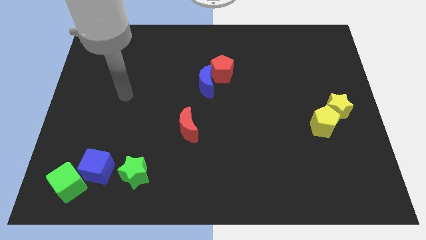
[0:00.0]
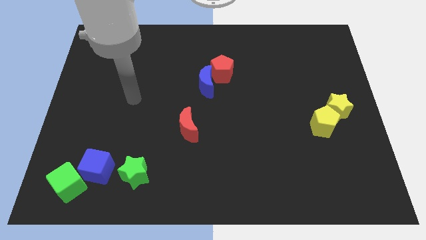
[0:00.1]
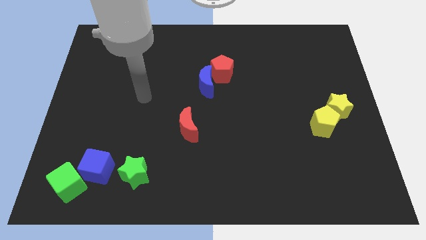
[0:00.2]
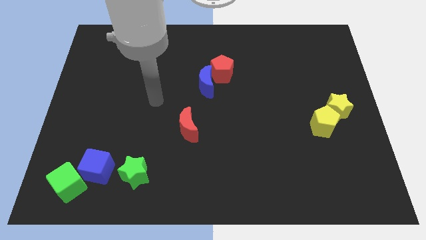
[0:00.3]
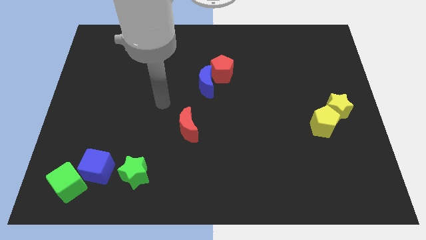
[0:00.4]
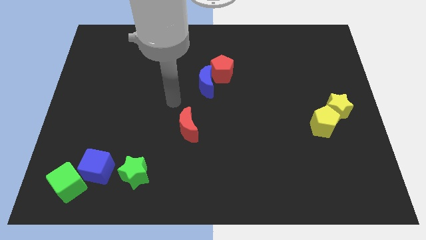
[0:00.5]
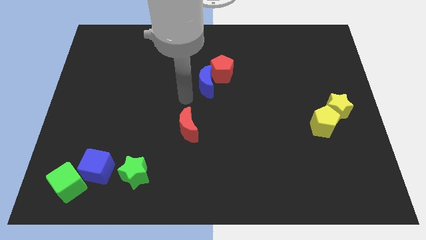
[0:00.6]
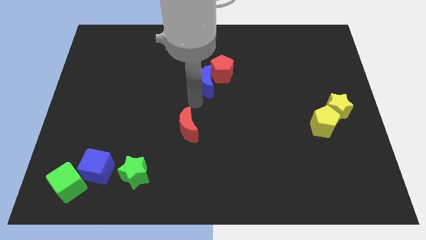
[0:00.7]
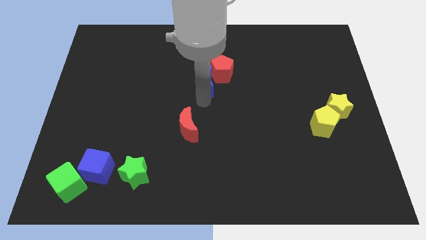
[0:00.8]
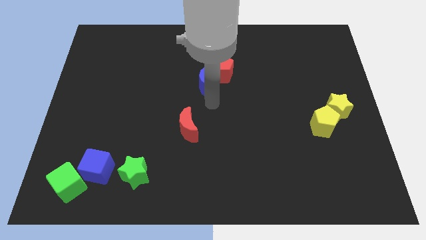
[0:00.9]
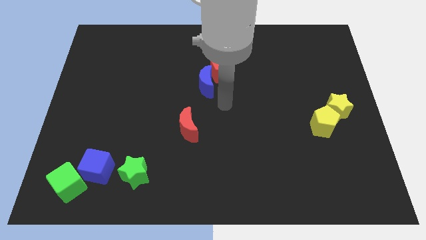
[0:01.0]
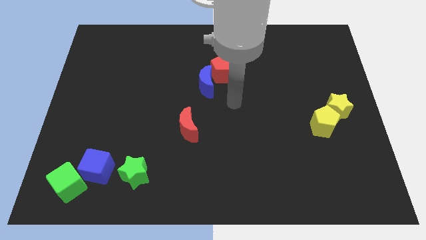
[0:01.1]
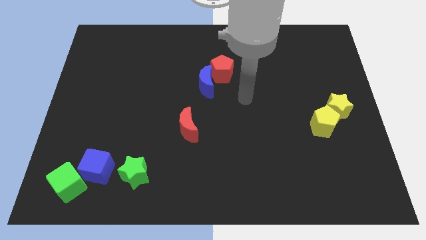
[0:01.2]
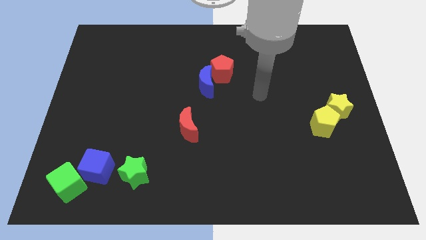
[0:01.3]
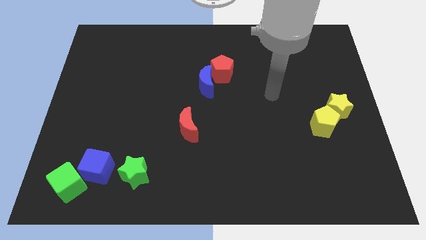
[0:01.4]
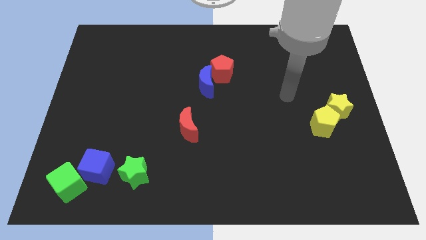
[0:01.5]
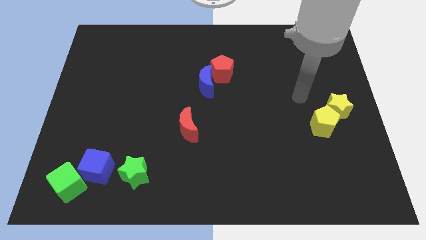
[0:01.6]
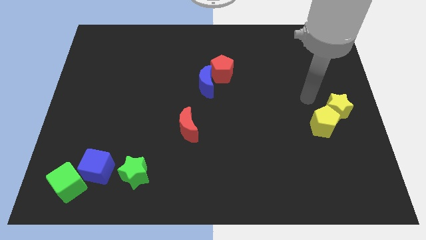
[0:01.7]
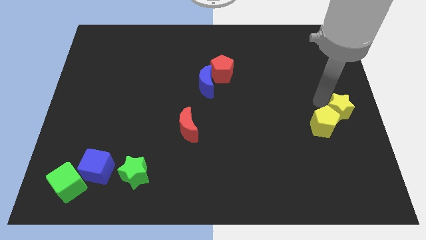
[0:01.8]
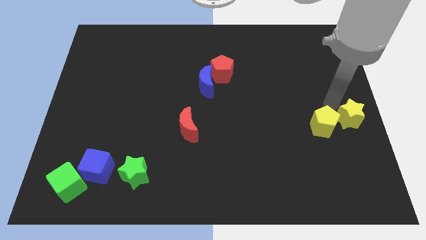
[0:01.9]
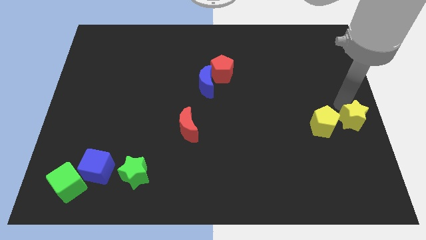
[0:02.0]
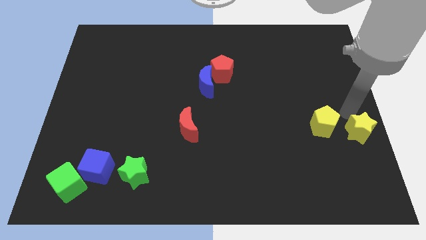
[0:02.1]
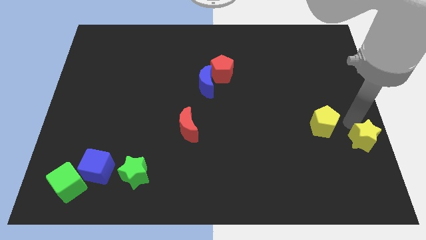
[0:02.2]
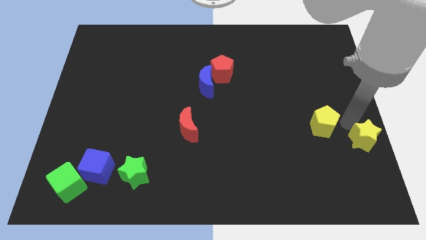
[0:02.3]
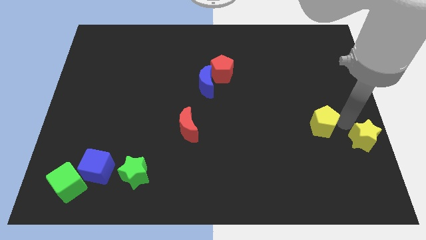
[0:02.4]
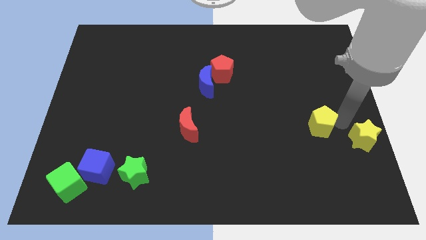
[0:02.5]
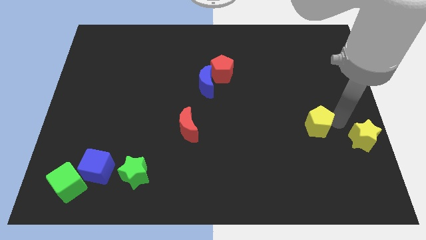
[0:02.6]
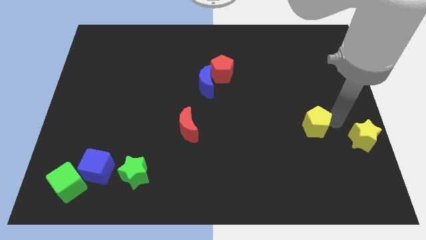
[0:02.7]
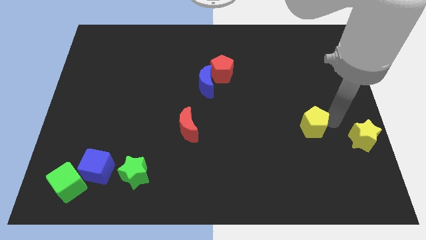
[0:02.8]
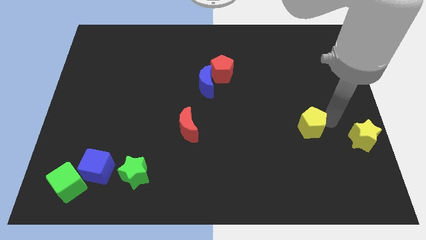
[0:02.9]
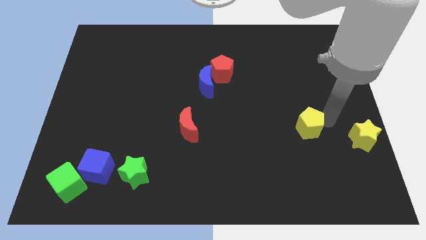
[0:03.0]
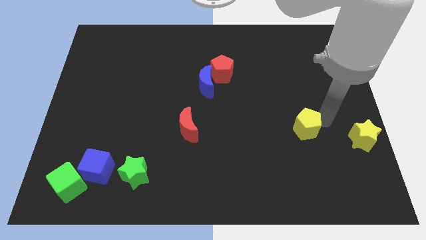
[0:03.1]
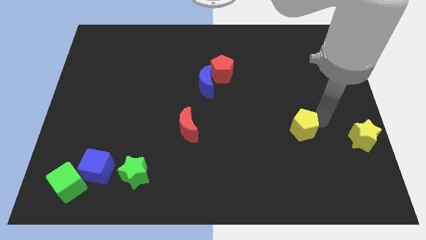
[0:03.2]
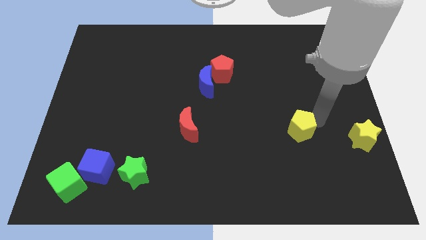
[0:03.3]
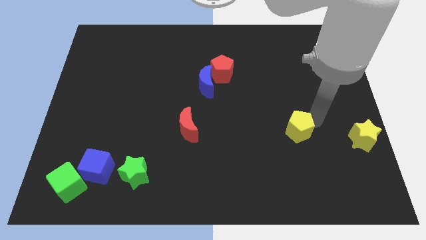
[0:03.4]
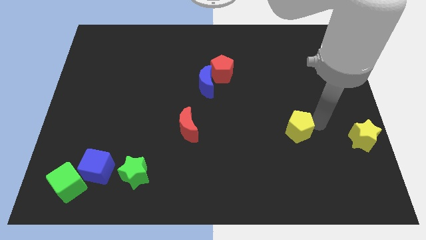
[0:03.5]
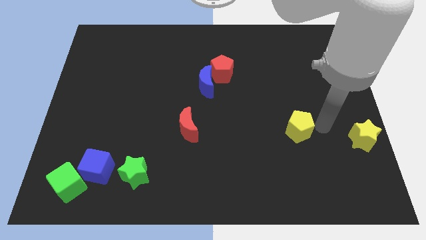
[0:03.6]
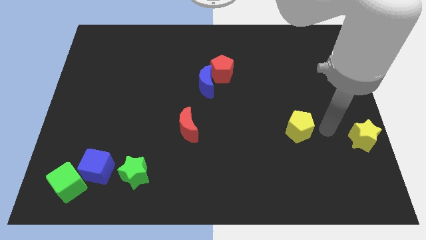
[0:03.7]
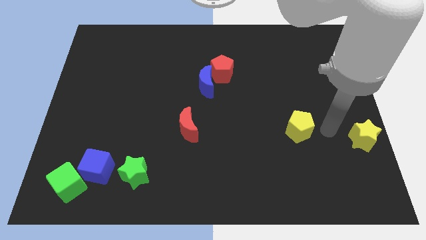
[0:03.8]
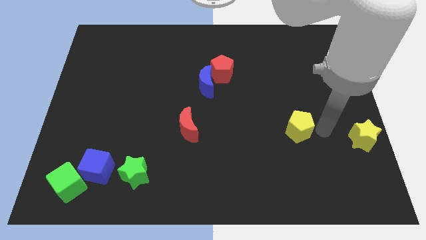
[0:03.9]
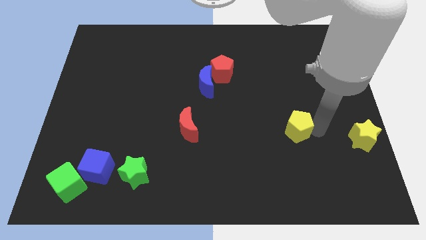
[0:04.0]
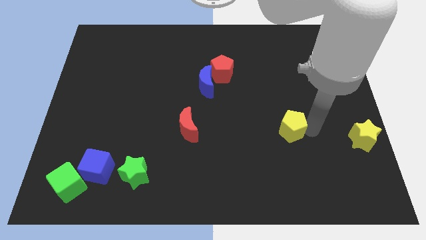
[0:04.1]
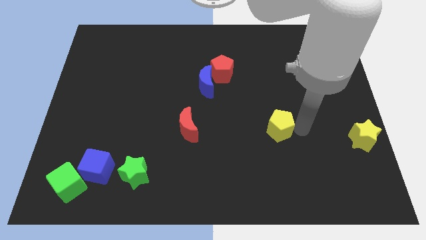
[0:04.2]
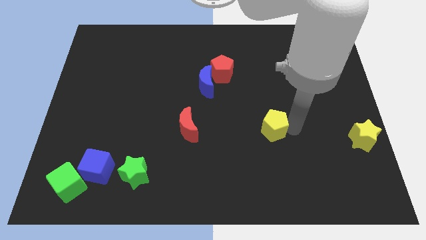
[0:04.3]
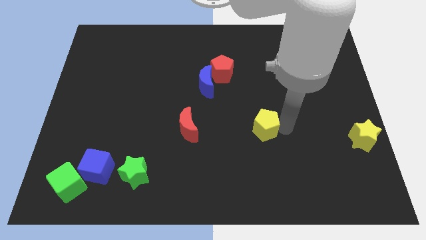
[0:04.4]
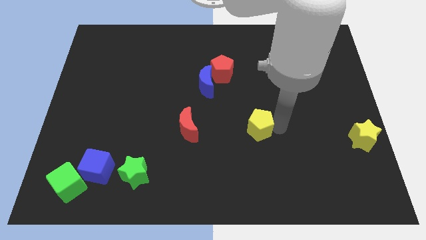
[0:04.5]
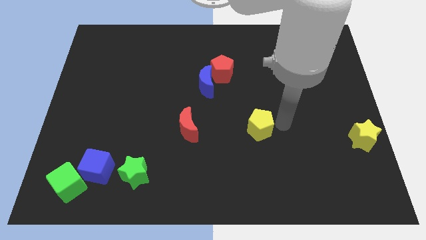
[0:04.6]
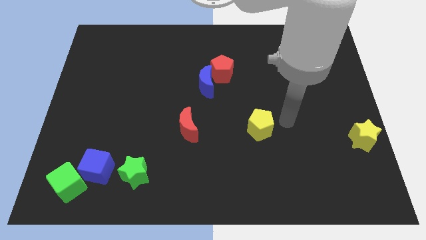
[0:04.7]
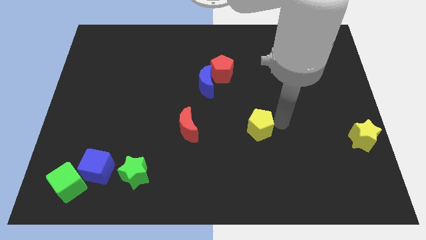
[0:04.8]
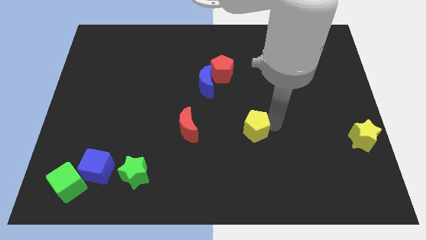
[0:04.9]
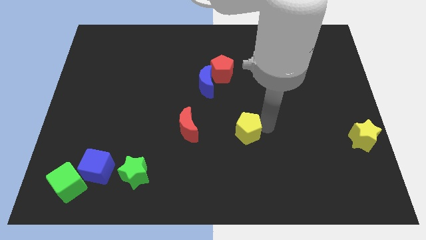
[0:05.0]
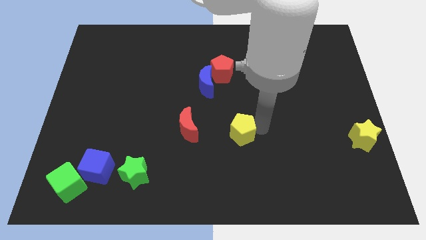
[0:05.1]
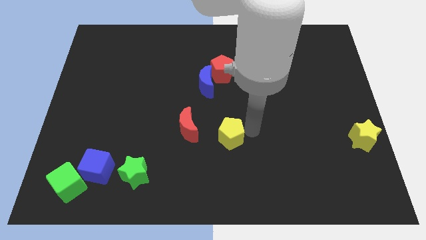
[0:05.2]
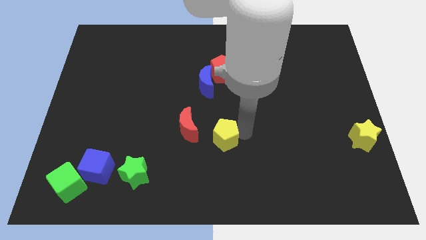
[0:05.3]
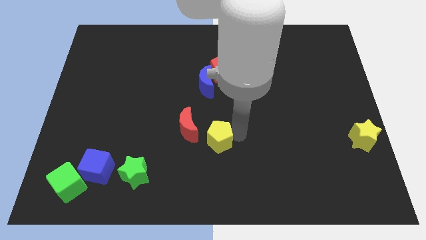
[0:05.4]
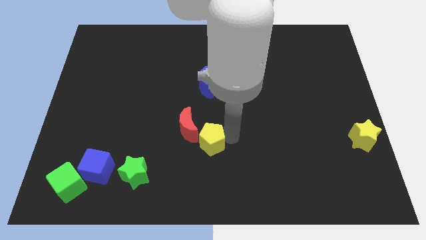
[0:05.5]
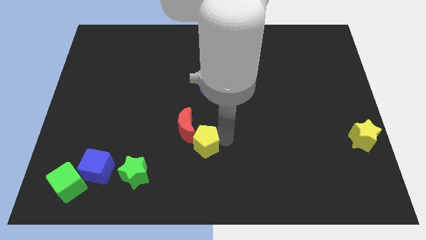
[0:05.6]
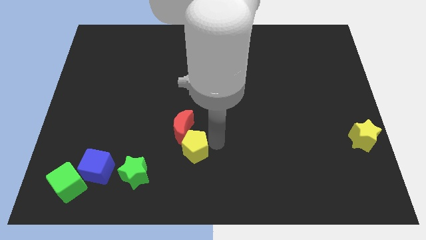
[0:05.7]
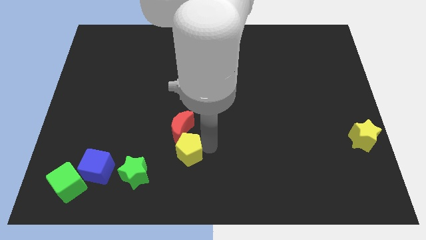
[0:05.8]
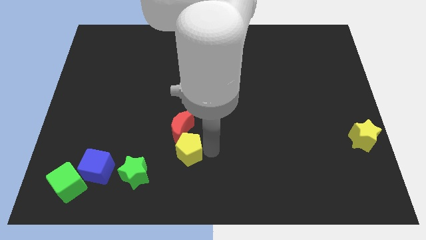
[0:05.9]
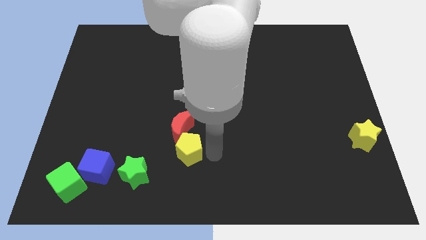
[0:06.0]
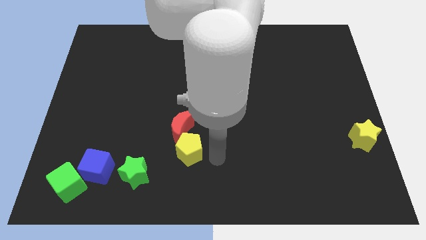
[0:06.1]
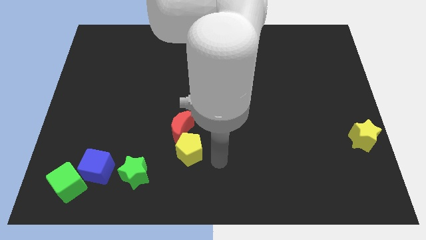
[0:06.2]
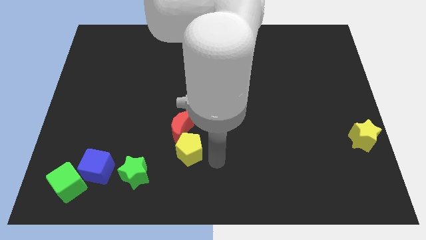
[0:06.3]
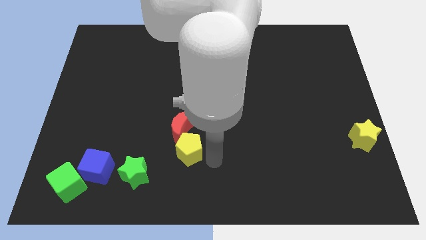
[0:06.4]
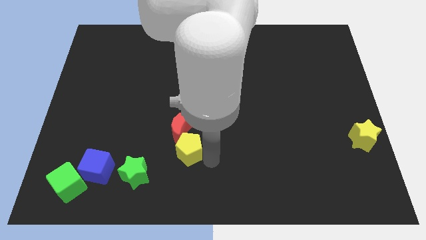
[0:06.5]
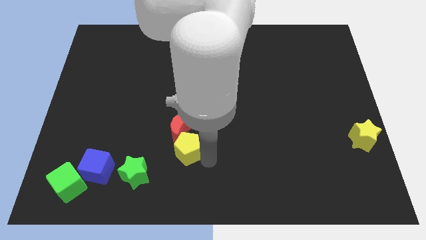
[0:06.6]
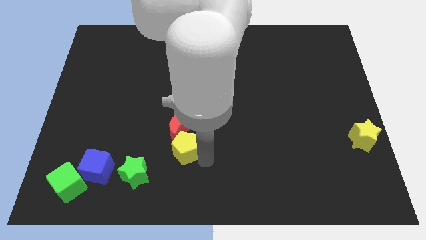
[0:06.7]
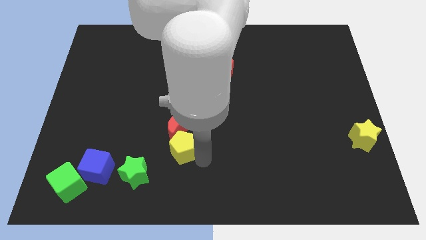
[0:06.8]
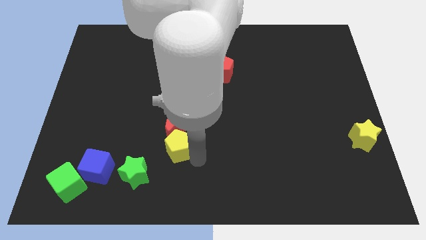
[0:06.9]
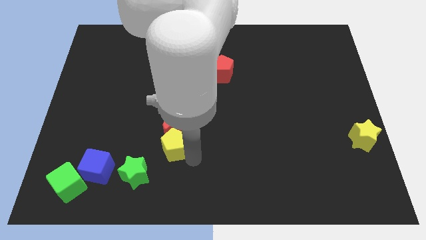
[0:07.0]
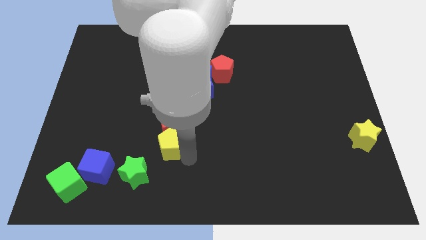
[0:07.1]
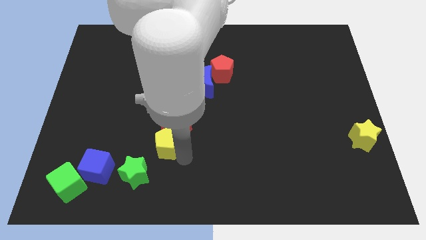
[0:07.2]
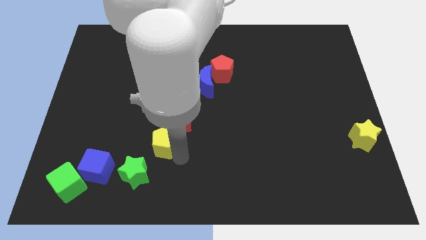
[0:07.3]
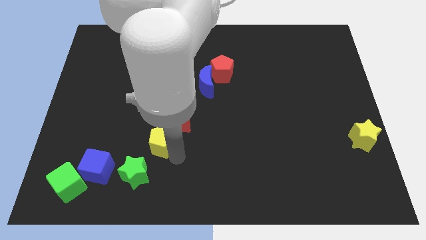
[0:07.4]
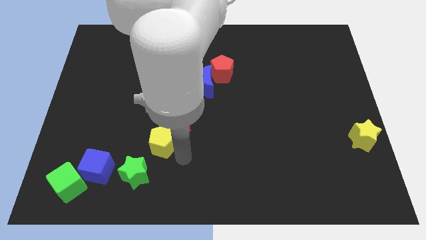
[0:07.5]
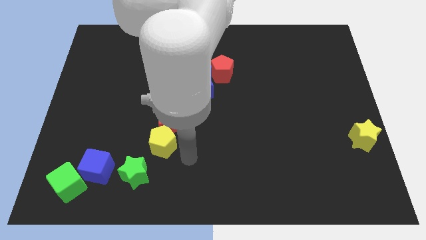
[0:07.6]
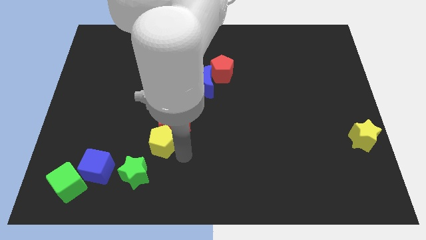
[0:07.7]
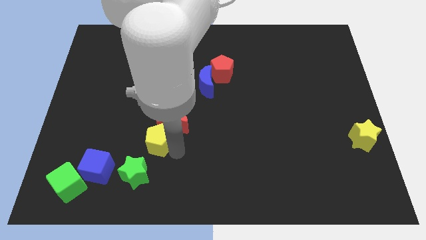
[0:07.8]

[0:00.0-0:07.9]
slide the yellow pentagon to the top side of the green star

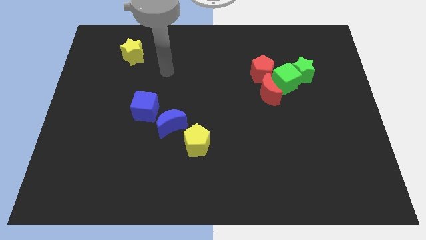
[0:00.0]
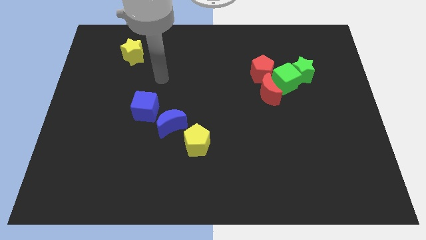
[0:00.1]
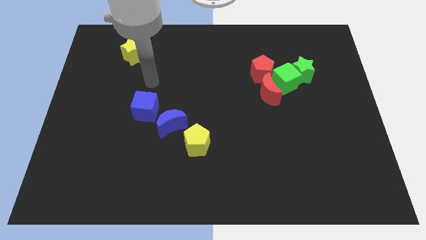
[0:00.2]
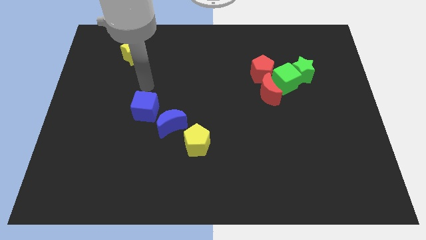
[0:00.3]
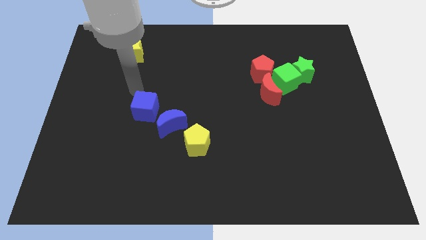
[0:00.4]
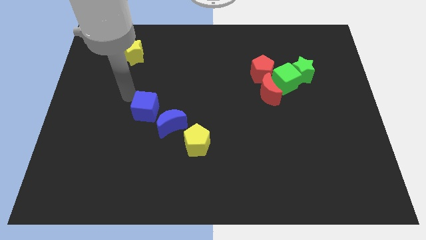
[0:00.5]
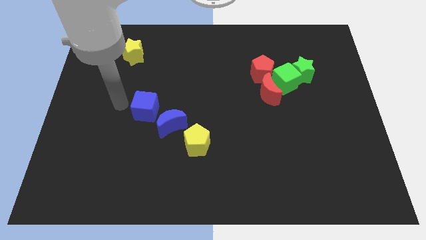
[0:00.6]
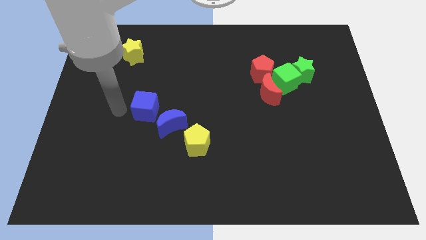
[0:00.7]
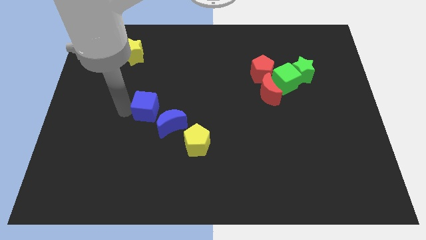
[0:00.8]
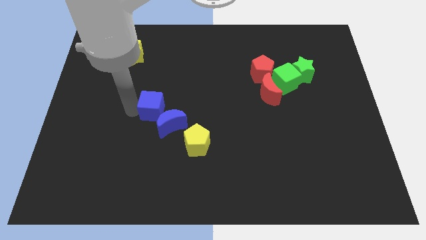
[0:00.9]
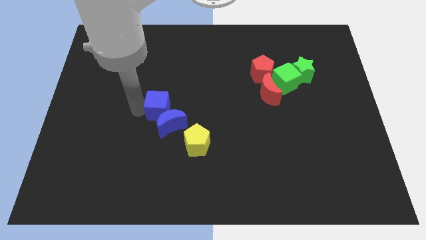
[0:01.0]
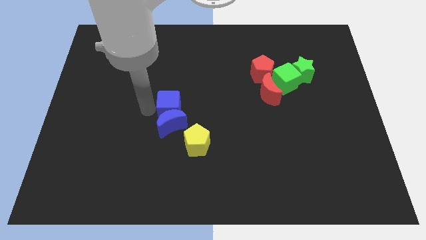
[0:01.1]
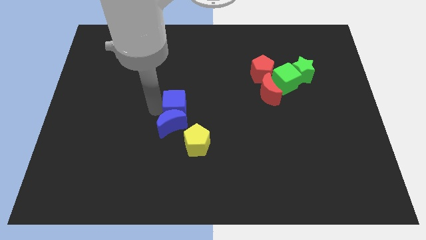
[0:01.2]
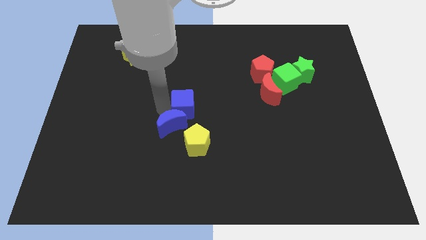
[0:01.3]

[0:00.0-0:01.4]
move the blue cube to the top side of the yellow pentagon
